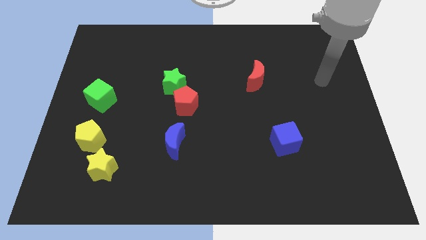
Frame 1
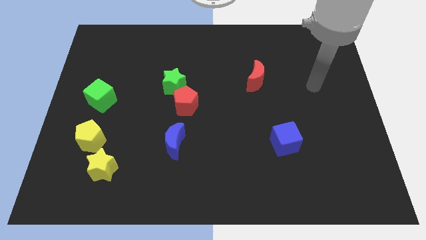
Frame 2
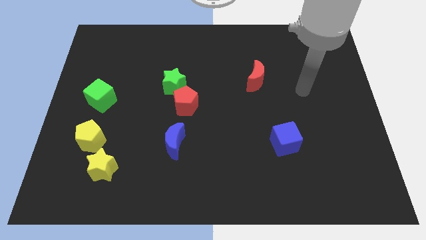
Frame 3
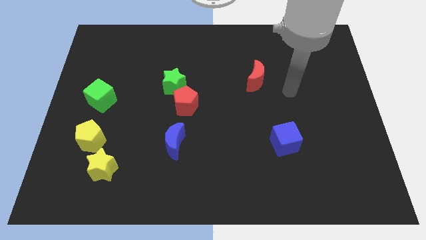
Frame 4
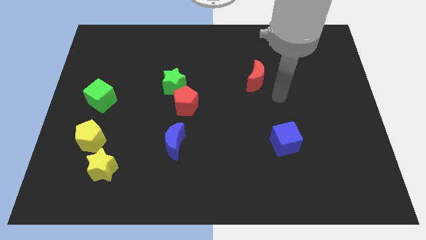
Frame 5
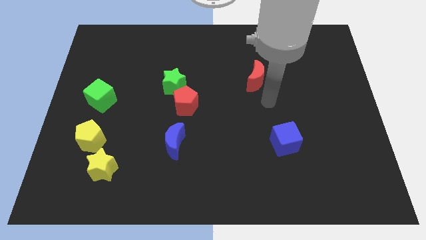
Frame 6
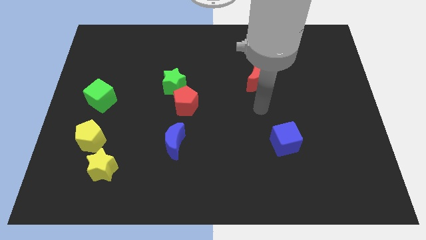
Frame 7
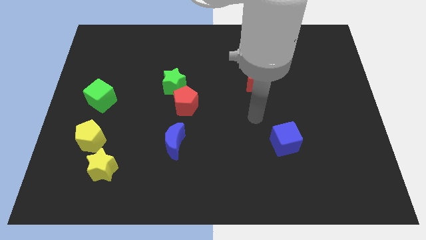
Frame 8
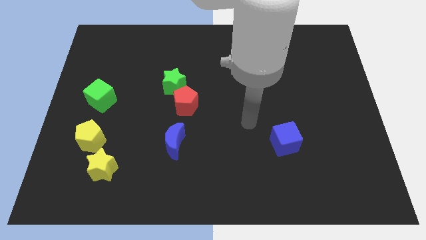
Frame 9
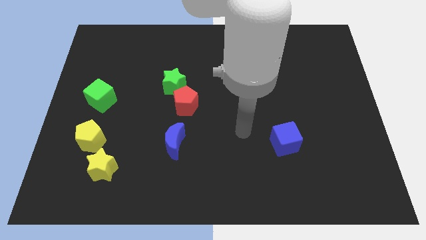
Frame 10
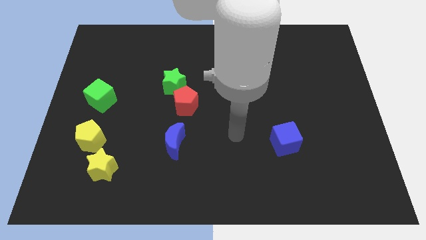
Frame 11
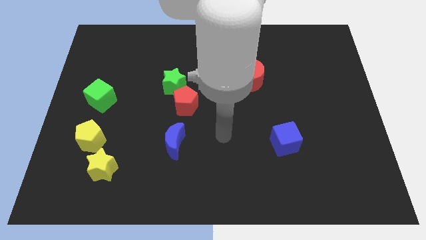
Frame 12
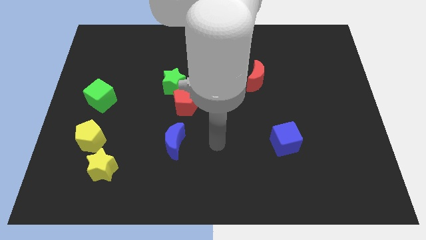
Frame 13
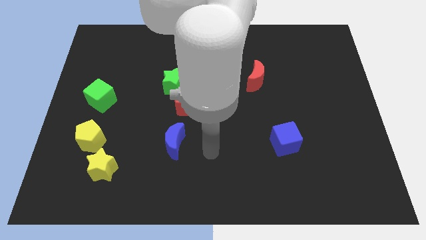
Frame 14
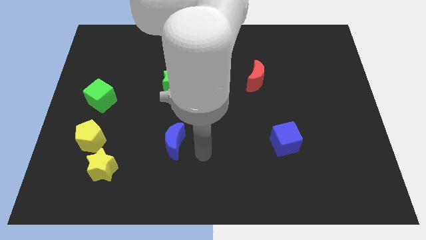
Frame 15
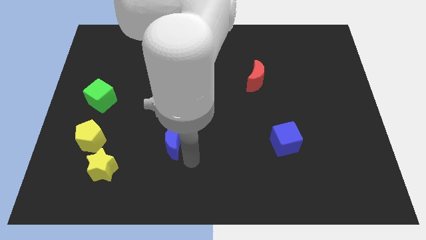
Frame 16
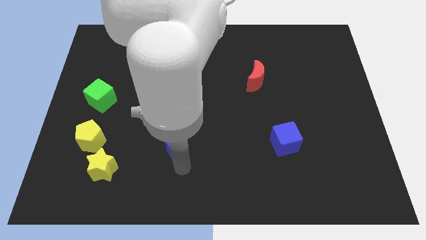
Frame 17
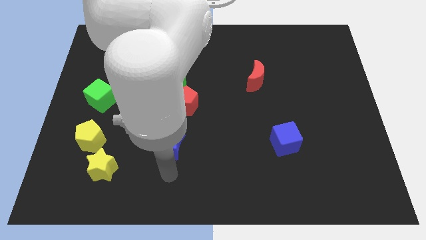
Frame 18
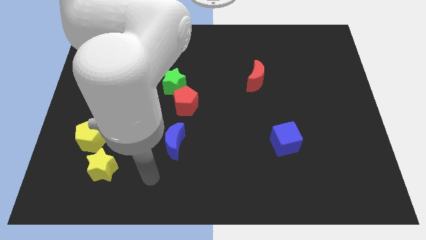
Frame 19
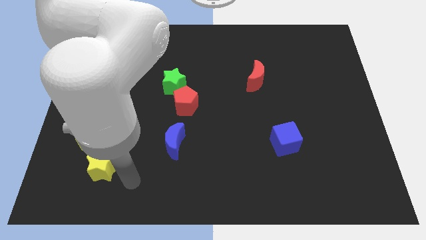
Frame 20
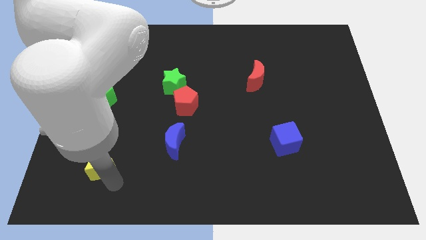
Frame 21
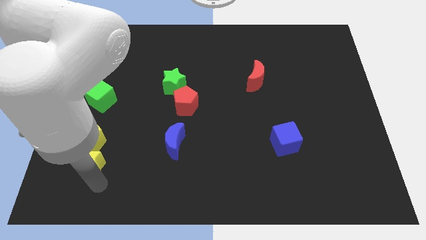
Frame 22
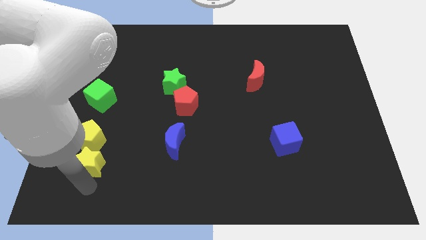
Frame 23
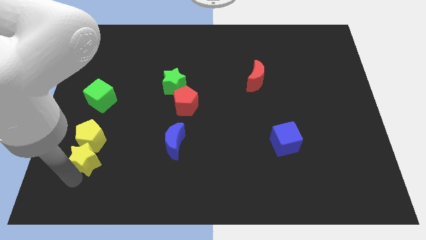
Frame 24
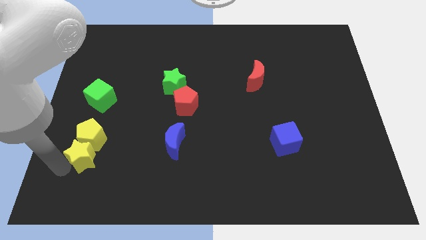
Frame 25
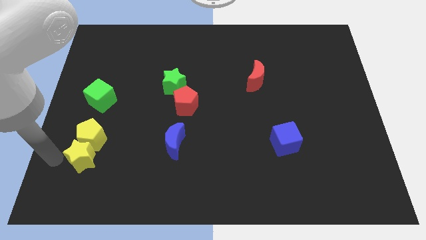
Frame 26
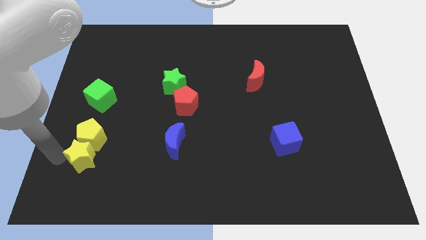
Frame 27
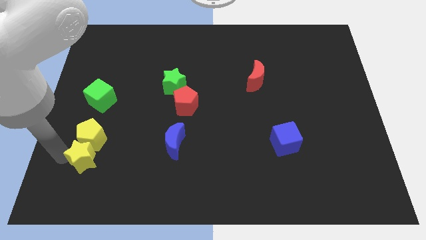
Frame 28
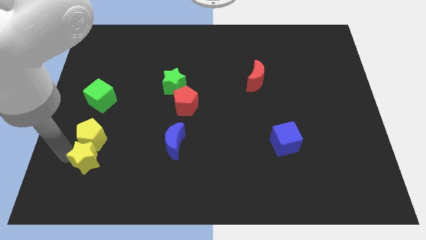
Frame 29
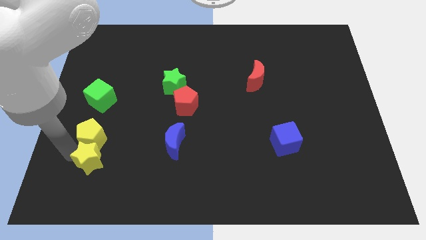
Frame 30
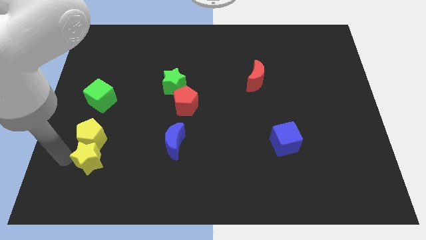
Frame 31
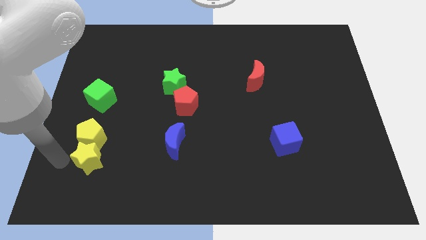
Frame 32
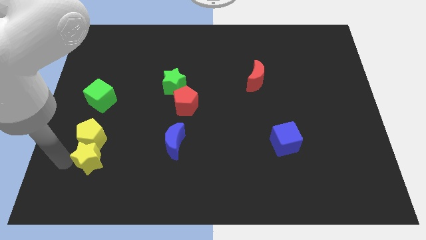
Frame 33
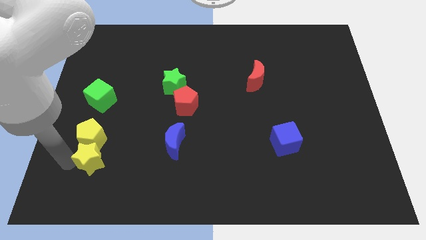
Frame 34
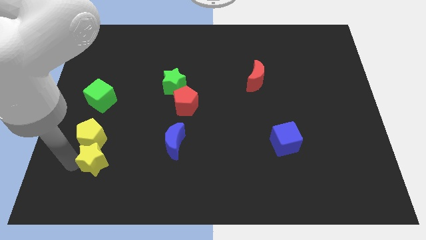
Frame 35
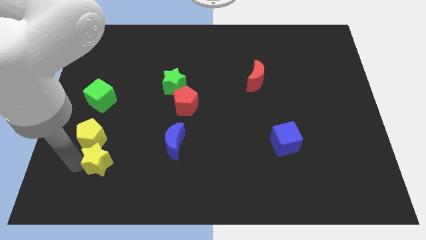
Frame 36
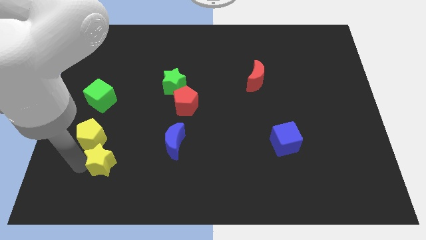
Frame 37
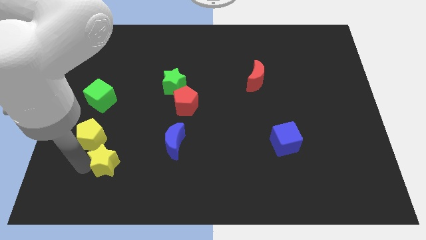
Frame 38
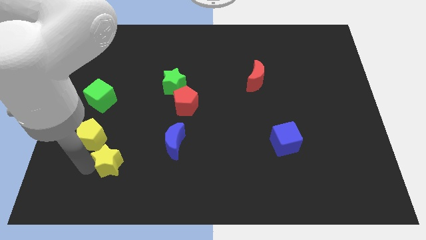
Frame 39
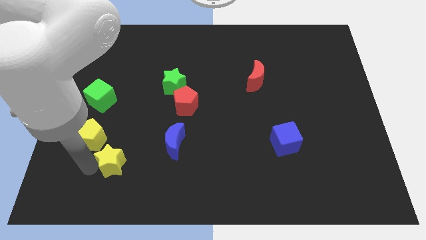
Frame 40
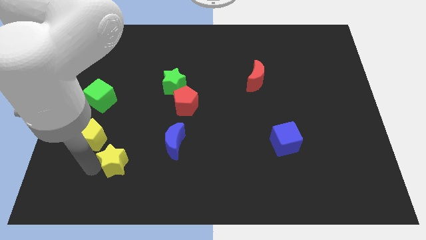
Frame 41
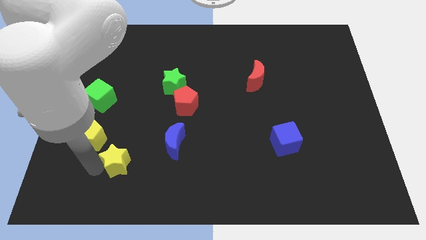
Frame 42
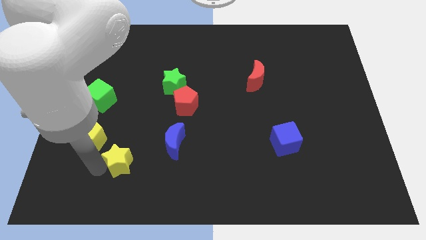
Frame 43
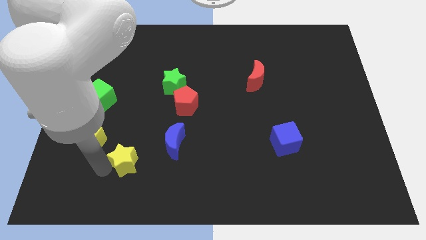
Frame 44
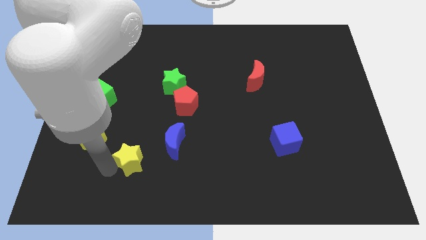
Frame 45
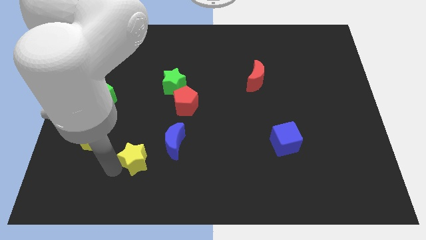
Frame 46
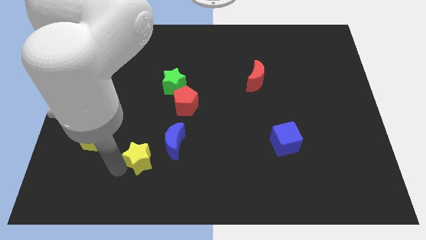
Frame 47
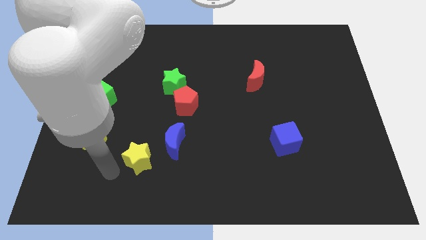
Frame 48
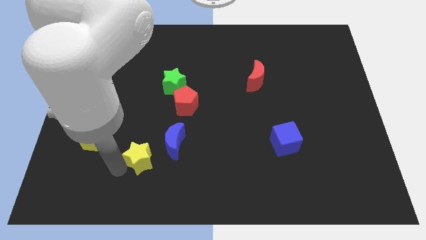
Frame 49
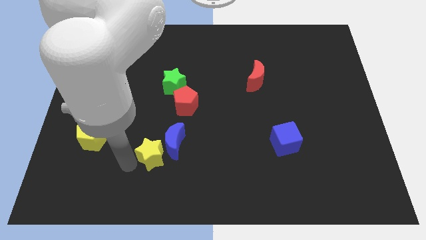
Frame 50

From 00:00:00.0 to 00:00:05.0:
push the yellow star next to the blue moon

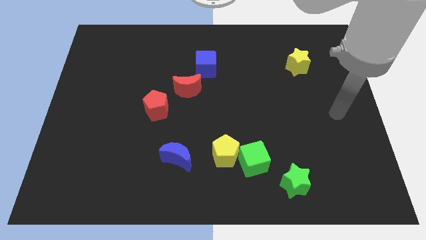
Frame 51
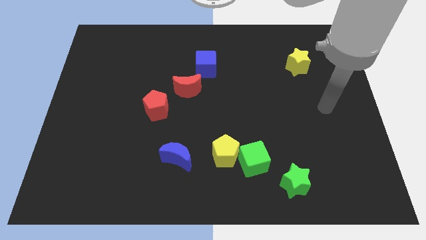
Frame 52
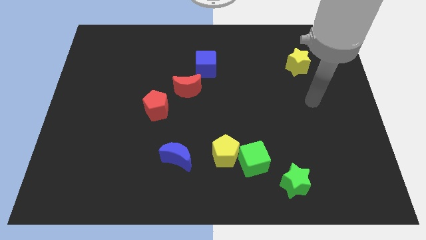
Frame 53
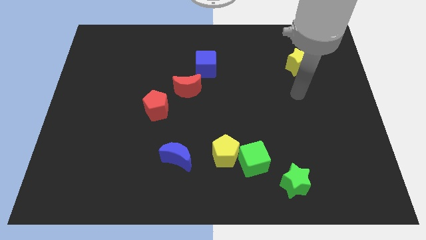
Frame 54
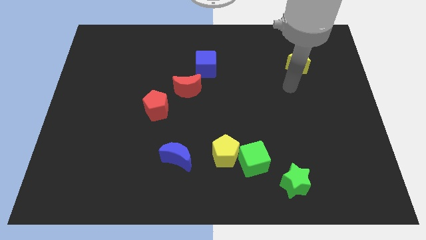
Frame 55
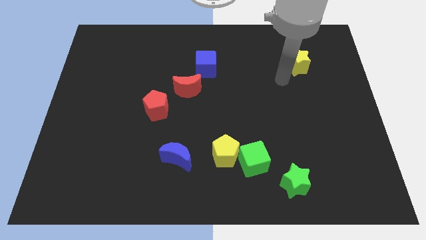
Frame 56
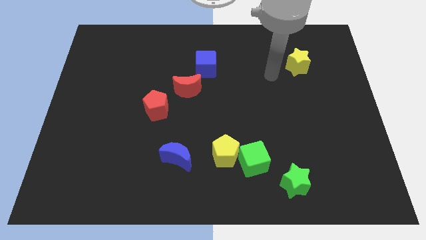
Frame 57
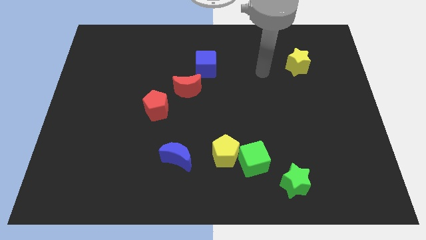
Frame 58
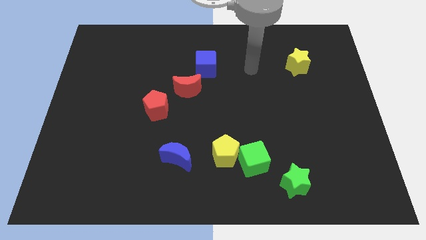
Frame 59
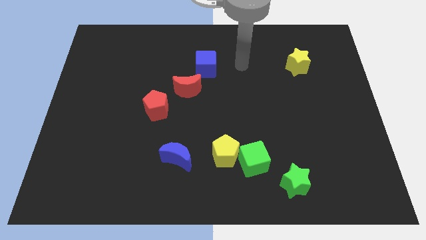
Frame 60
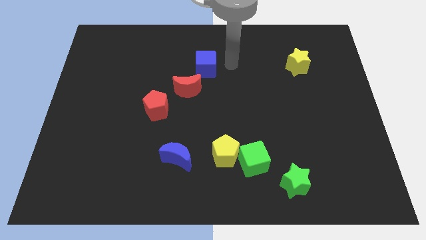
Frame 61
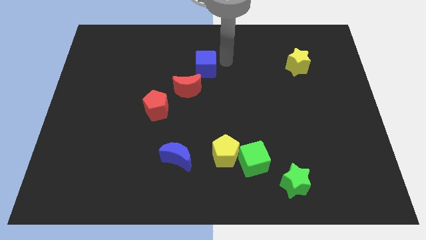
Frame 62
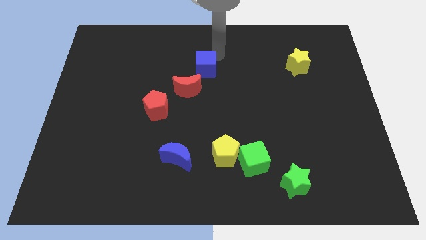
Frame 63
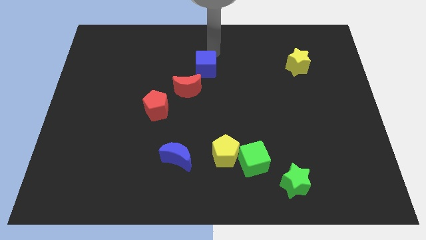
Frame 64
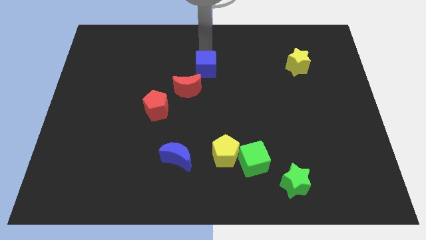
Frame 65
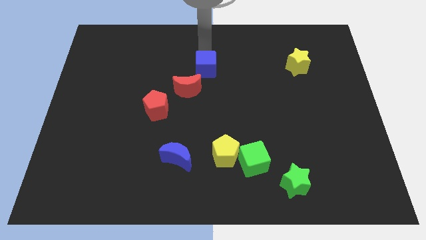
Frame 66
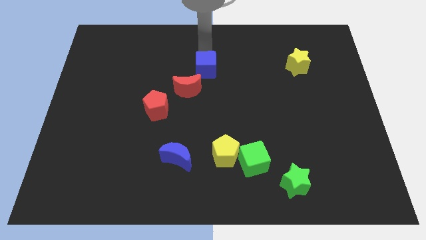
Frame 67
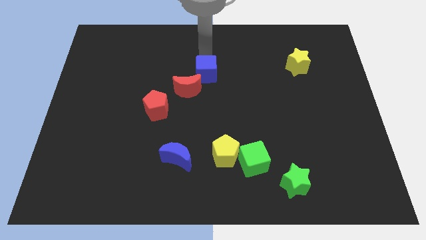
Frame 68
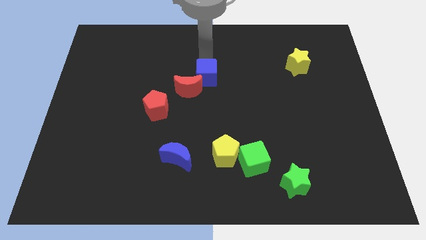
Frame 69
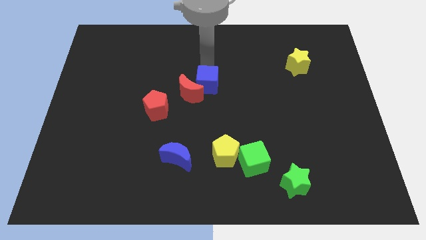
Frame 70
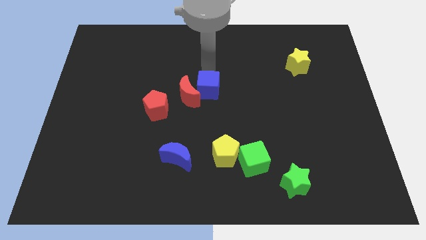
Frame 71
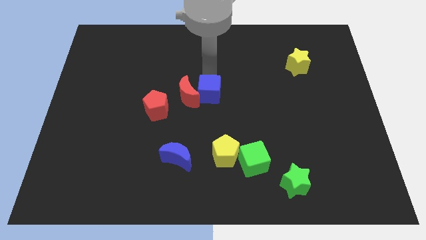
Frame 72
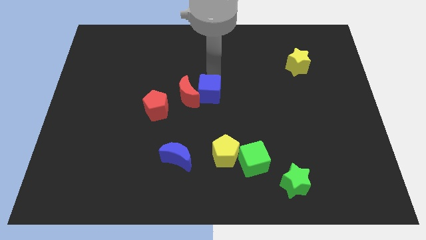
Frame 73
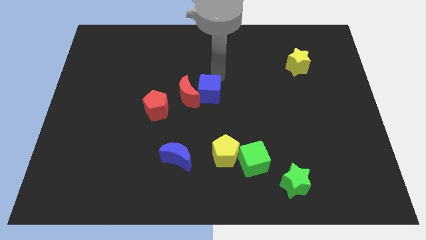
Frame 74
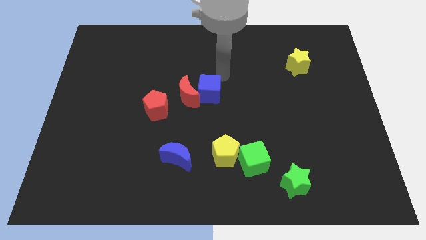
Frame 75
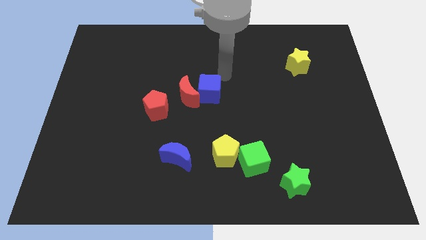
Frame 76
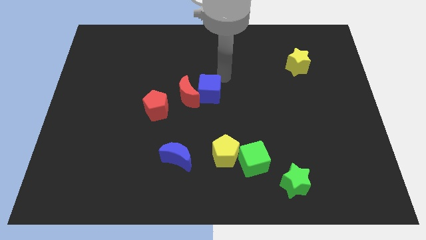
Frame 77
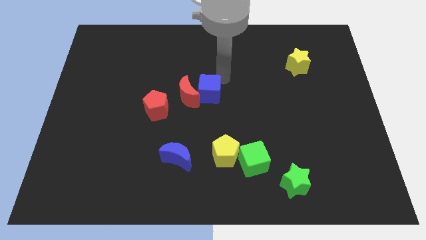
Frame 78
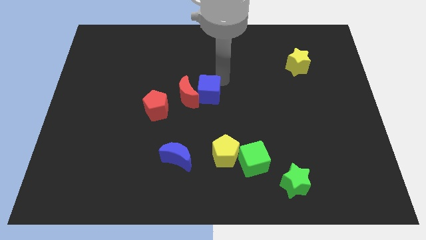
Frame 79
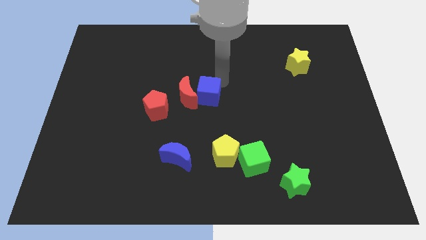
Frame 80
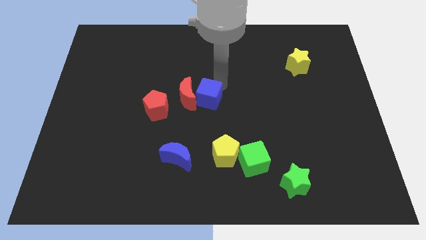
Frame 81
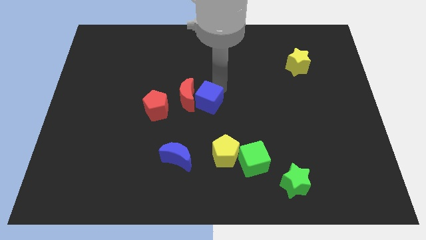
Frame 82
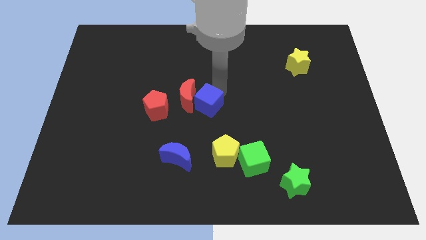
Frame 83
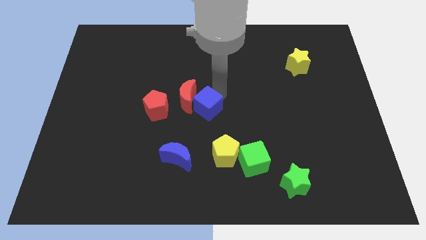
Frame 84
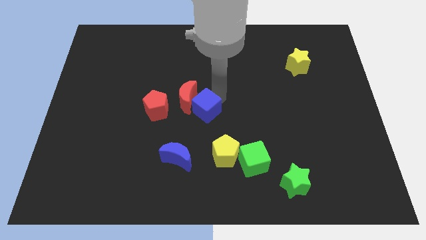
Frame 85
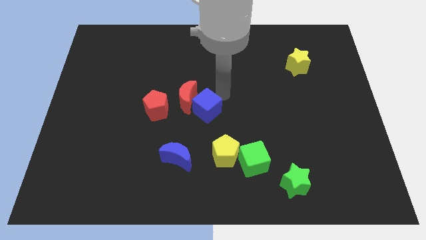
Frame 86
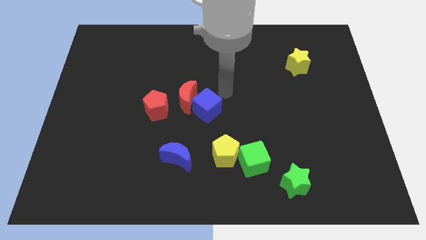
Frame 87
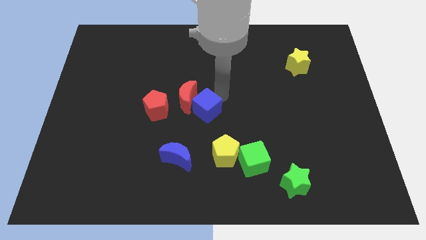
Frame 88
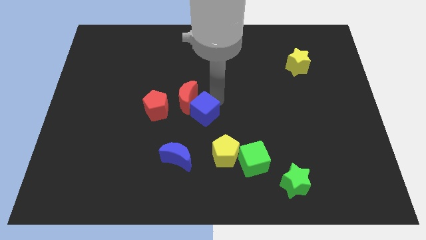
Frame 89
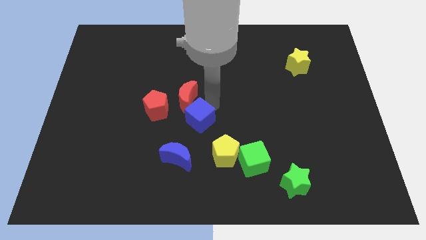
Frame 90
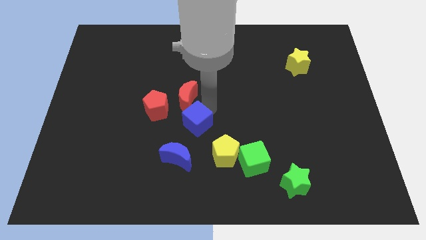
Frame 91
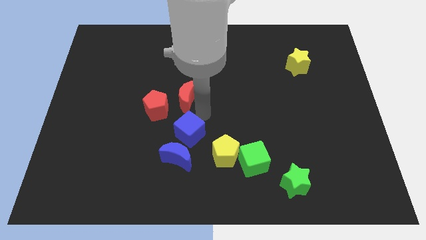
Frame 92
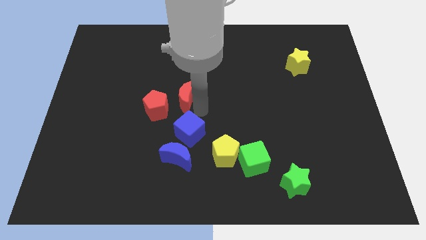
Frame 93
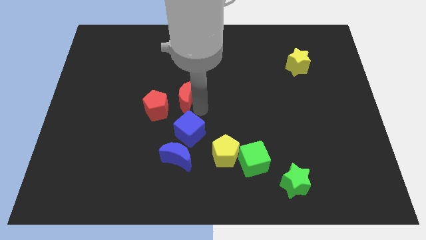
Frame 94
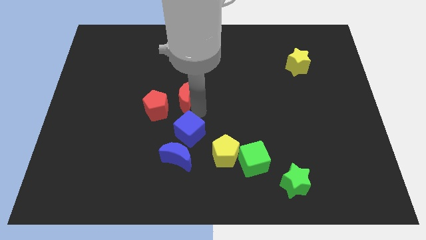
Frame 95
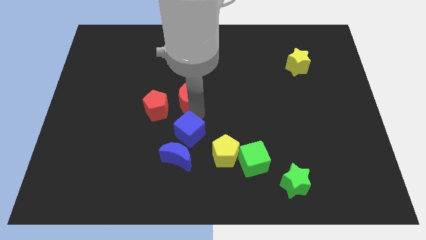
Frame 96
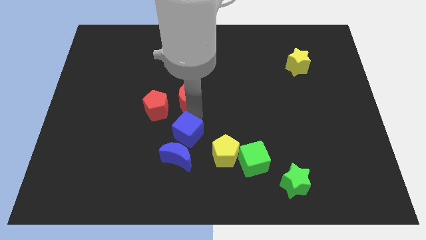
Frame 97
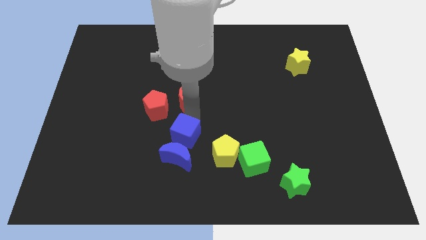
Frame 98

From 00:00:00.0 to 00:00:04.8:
put the blue cube close to the blue moon
